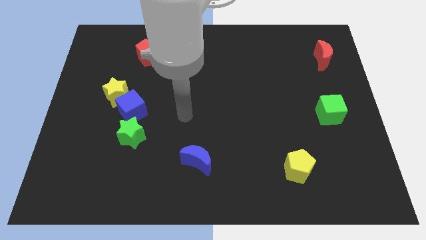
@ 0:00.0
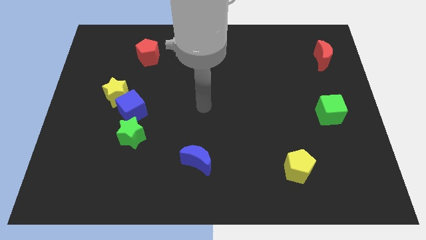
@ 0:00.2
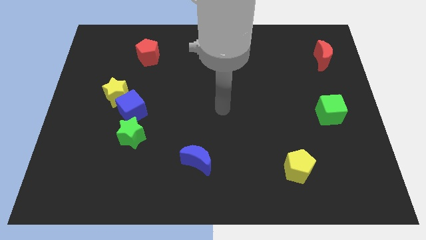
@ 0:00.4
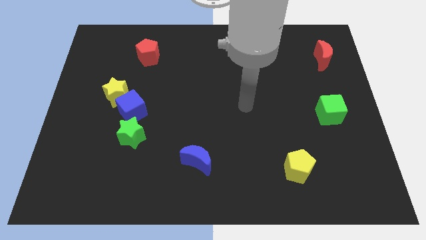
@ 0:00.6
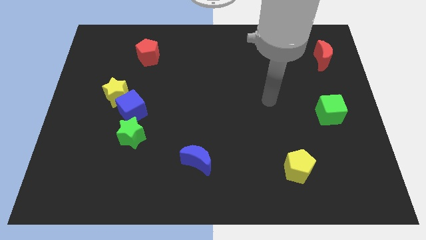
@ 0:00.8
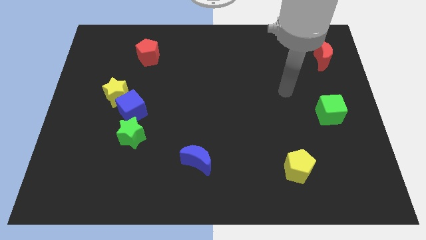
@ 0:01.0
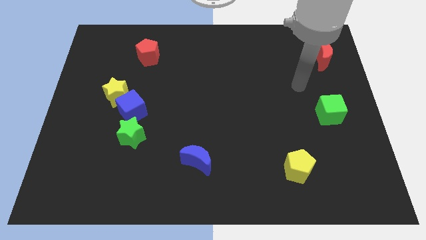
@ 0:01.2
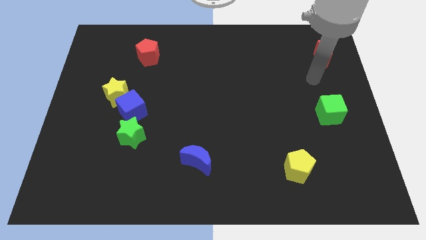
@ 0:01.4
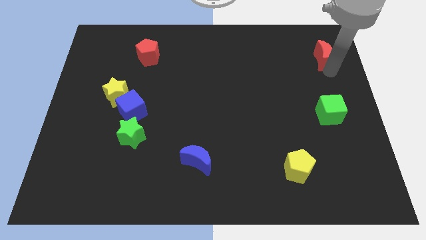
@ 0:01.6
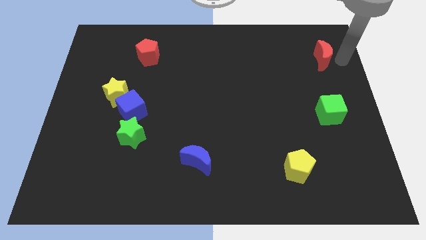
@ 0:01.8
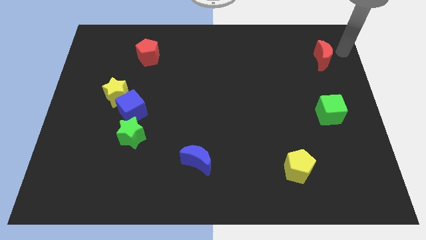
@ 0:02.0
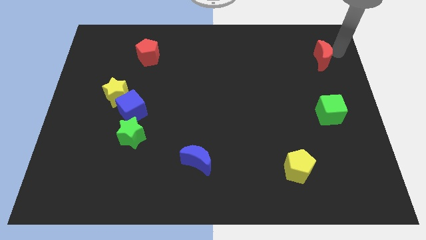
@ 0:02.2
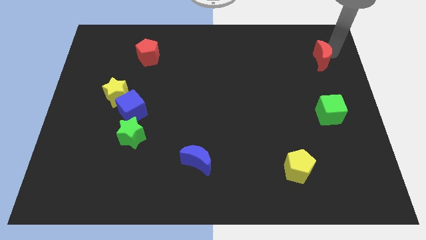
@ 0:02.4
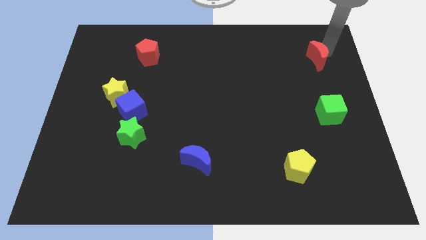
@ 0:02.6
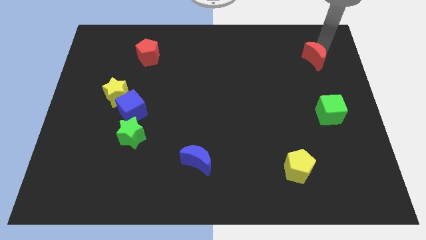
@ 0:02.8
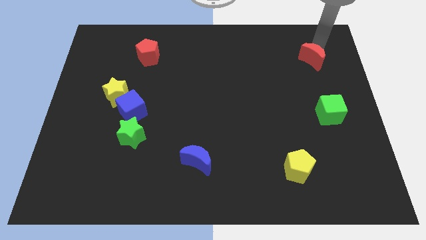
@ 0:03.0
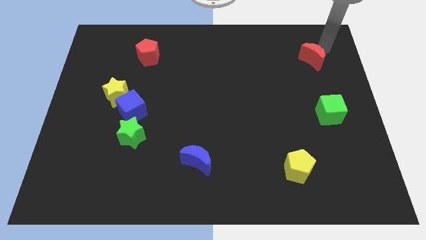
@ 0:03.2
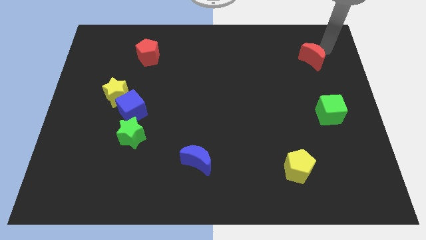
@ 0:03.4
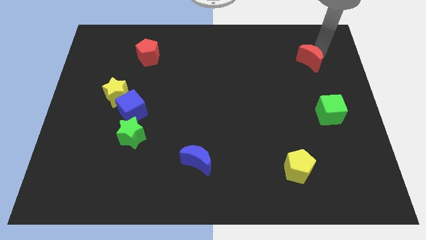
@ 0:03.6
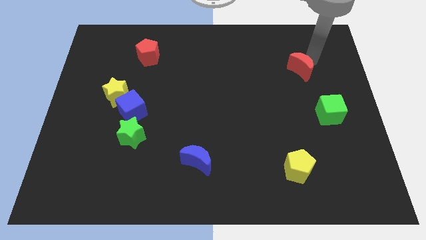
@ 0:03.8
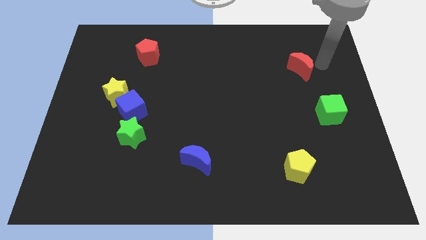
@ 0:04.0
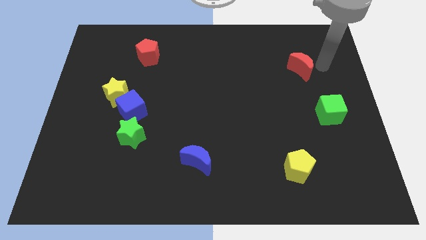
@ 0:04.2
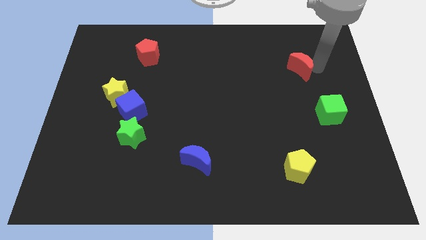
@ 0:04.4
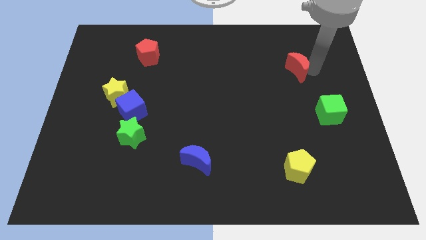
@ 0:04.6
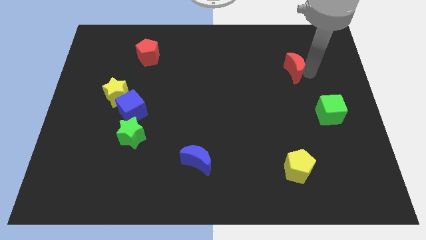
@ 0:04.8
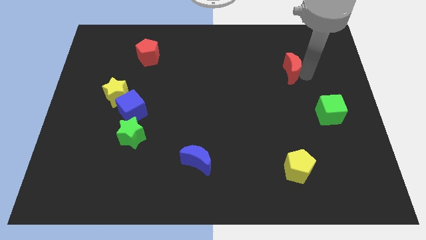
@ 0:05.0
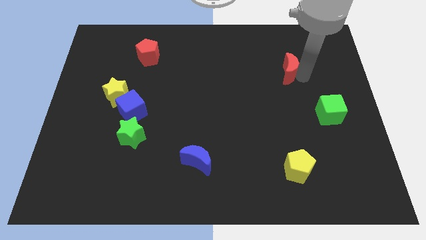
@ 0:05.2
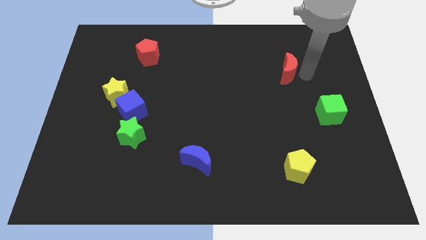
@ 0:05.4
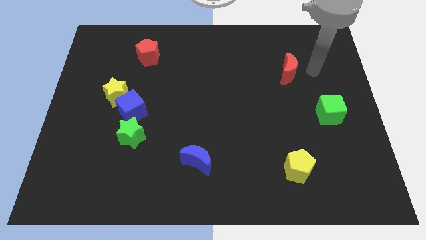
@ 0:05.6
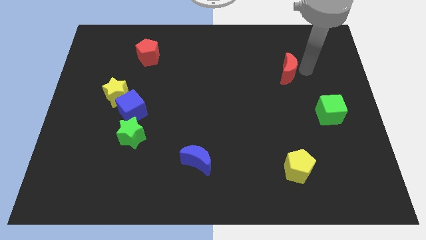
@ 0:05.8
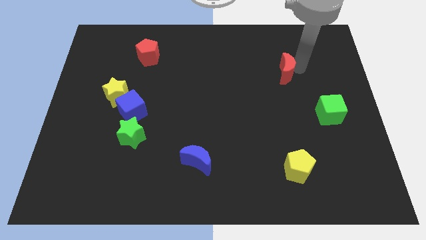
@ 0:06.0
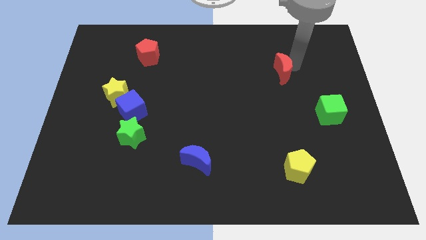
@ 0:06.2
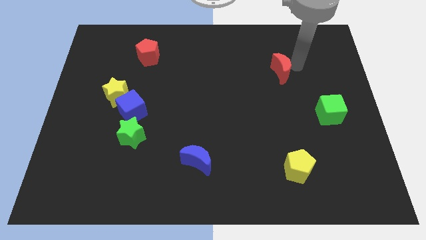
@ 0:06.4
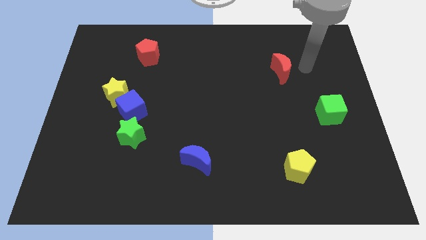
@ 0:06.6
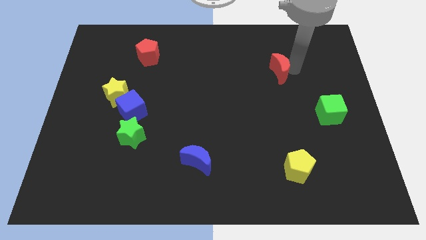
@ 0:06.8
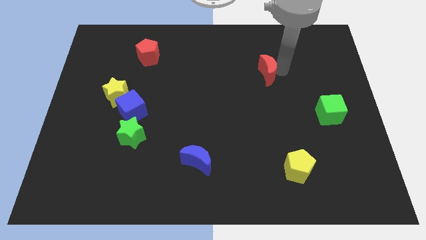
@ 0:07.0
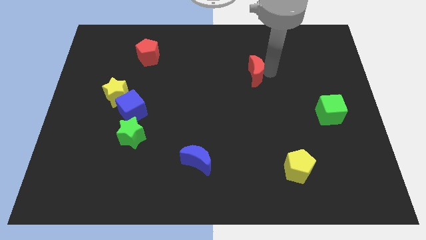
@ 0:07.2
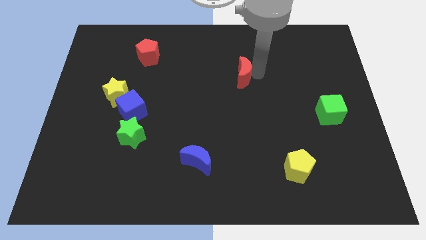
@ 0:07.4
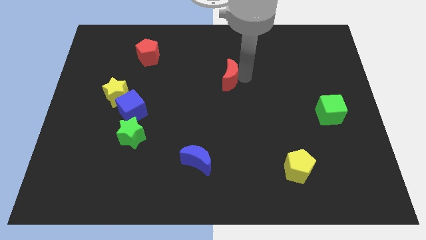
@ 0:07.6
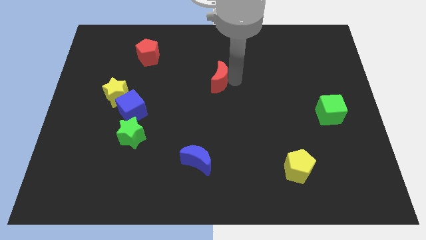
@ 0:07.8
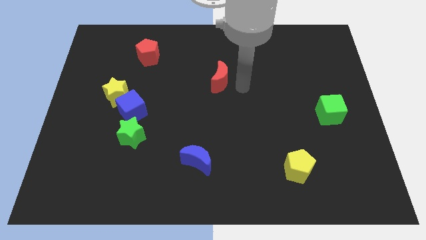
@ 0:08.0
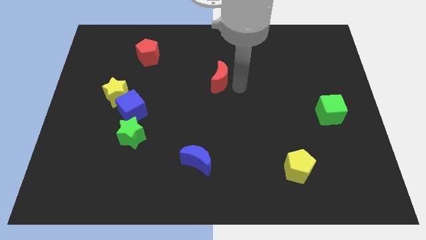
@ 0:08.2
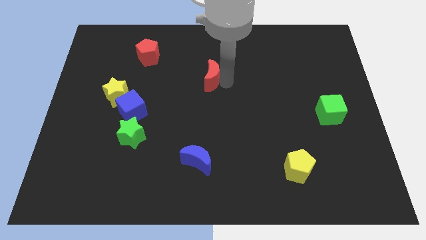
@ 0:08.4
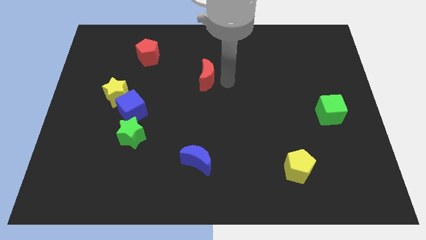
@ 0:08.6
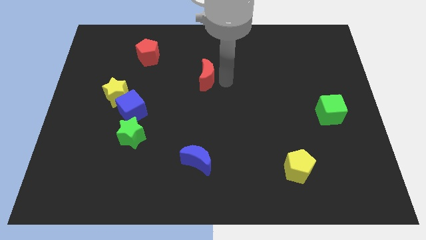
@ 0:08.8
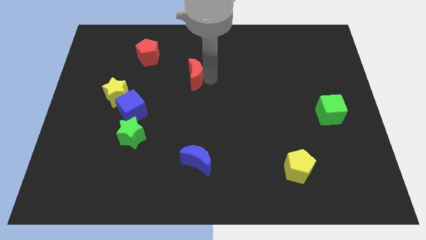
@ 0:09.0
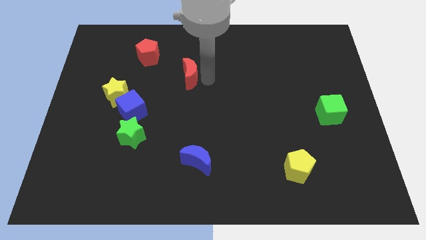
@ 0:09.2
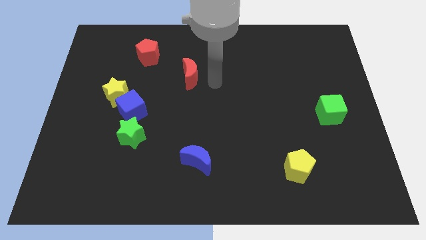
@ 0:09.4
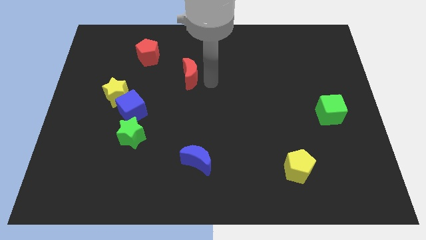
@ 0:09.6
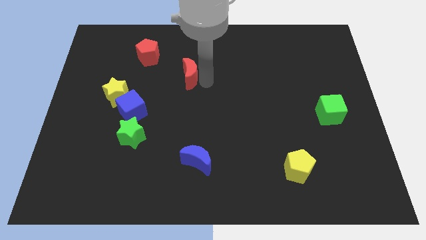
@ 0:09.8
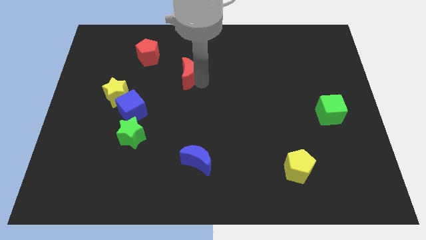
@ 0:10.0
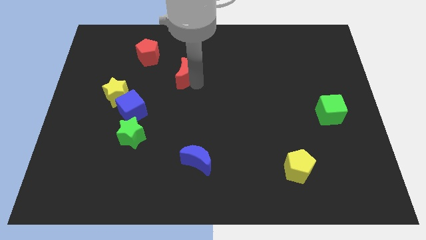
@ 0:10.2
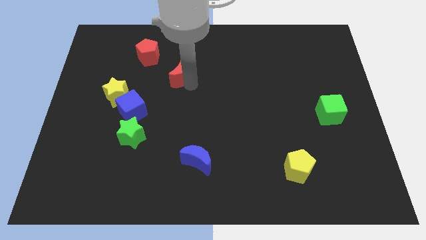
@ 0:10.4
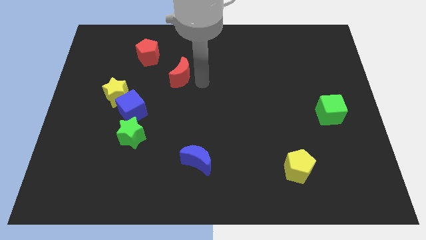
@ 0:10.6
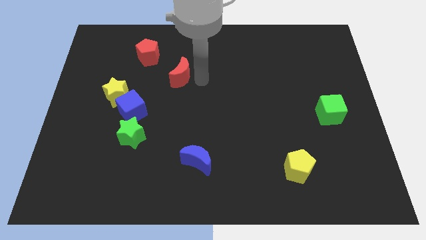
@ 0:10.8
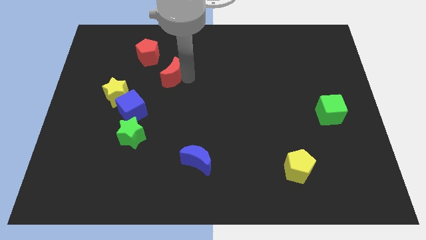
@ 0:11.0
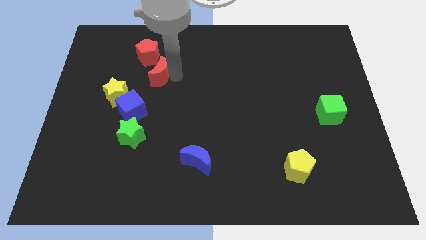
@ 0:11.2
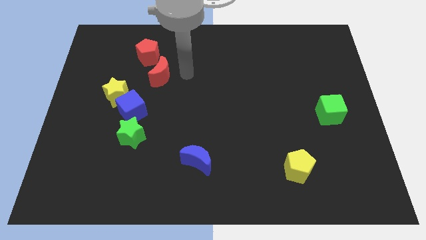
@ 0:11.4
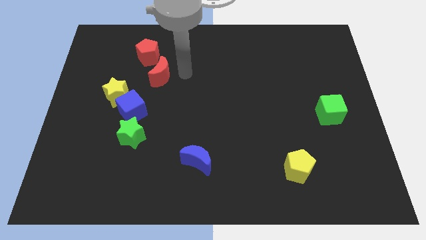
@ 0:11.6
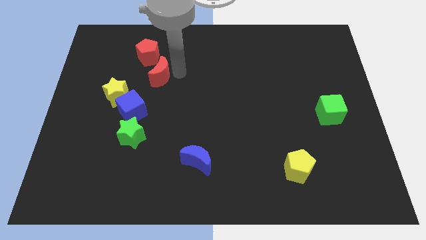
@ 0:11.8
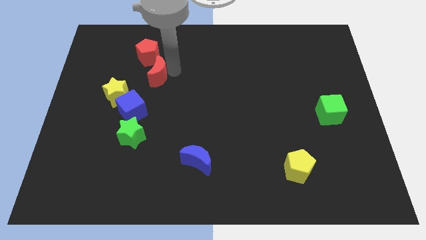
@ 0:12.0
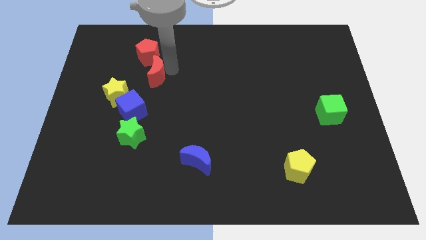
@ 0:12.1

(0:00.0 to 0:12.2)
push the red moon to the top side of the blue cube

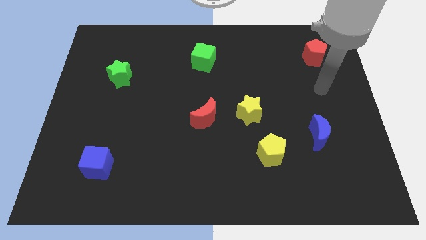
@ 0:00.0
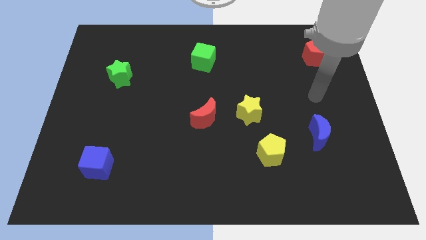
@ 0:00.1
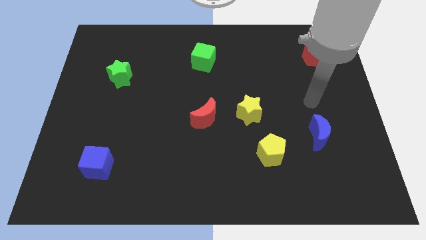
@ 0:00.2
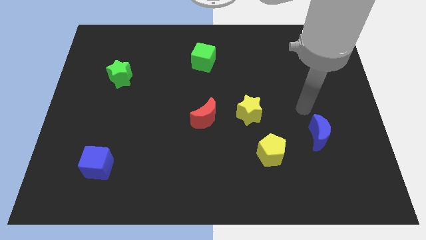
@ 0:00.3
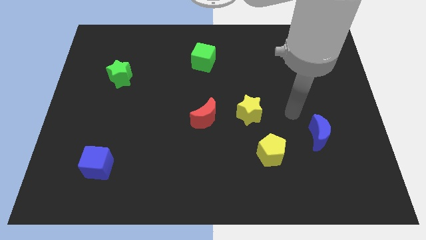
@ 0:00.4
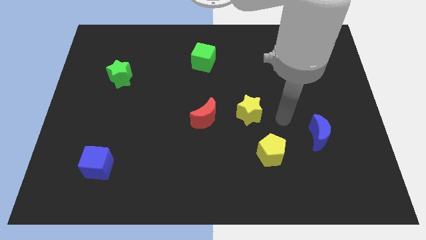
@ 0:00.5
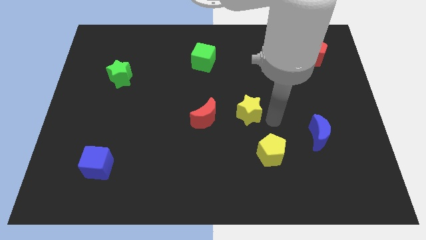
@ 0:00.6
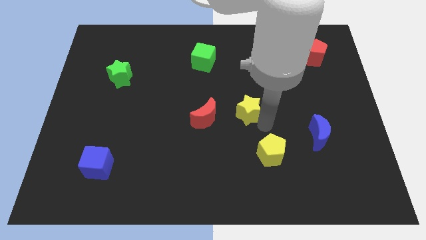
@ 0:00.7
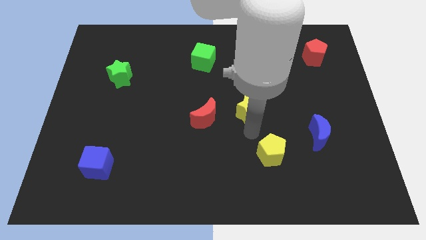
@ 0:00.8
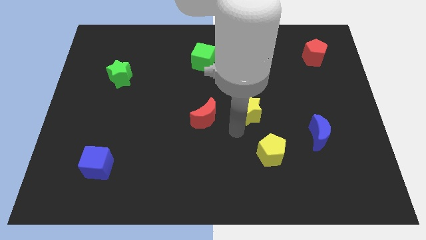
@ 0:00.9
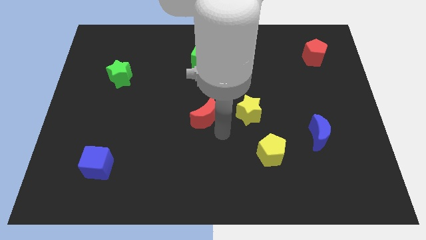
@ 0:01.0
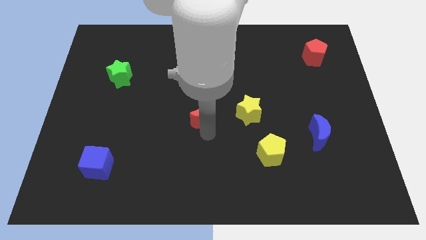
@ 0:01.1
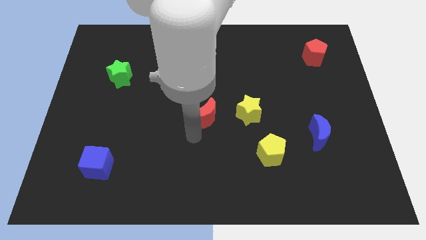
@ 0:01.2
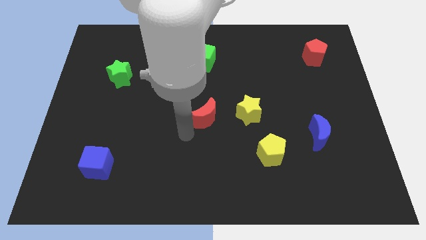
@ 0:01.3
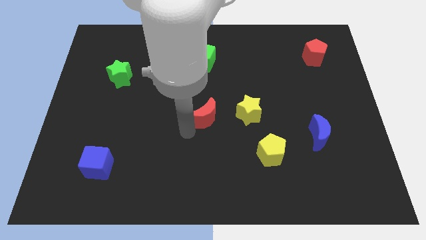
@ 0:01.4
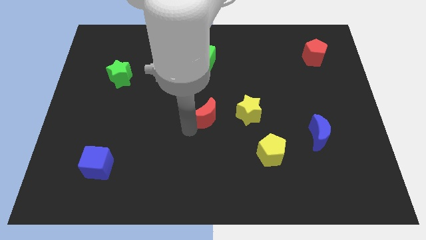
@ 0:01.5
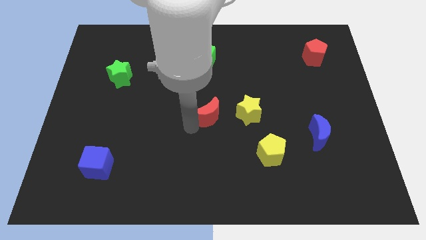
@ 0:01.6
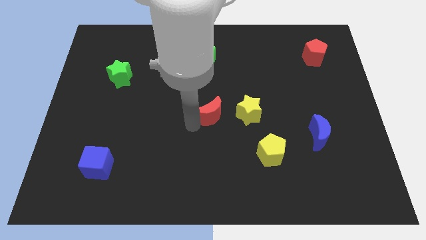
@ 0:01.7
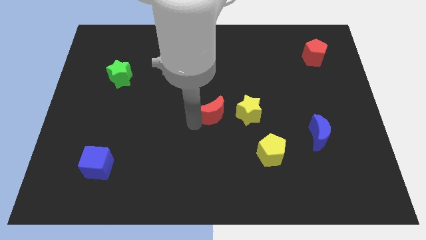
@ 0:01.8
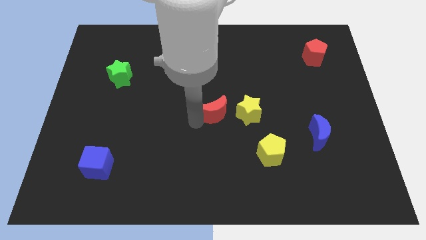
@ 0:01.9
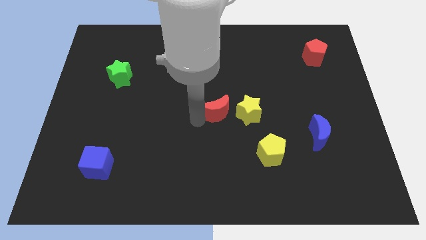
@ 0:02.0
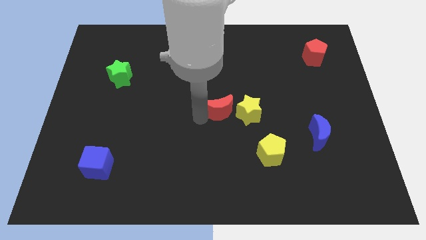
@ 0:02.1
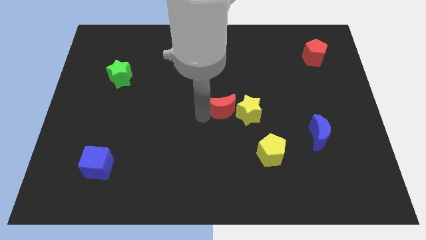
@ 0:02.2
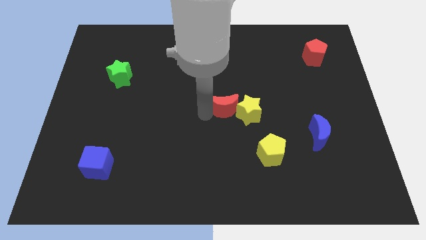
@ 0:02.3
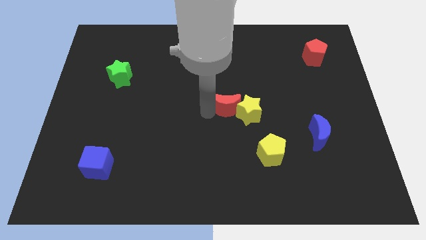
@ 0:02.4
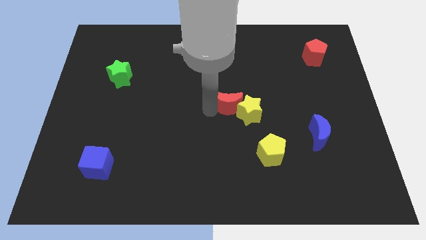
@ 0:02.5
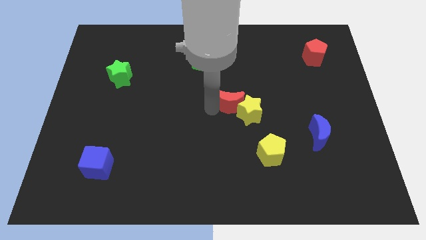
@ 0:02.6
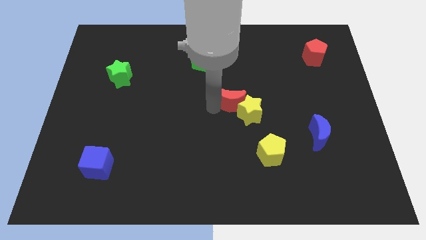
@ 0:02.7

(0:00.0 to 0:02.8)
move the red moon to the top of the yellow star
